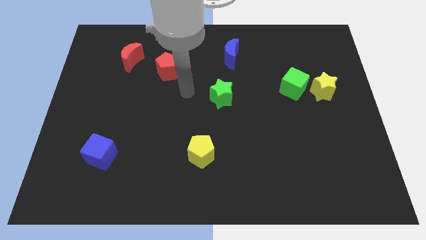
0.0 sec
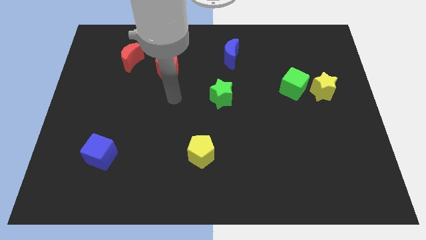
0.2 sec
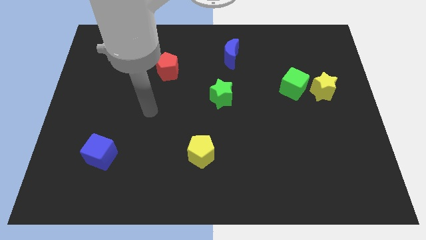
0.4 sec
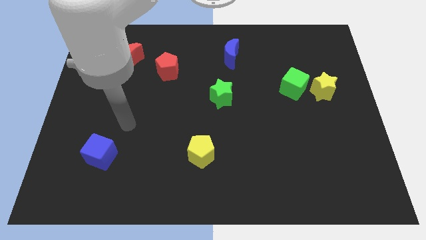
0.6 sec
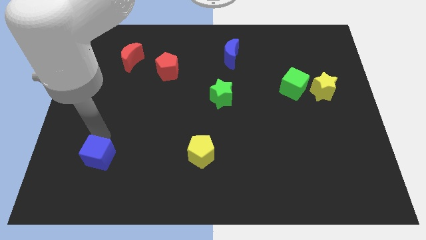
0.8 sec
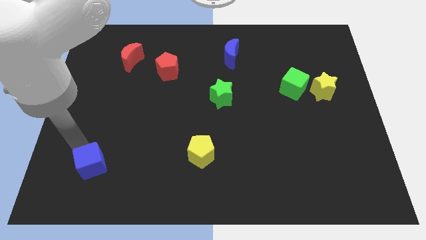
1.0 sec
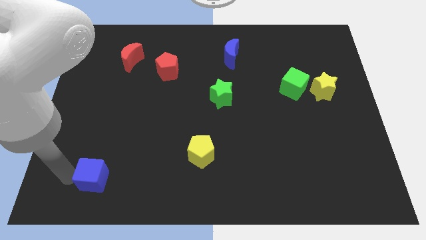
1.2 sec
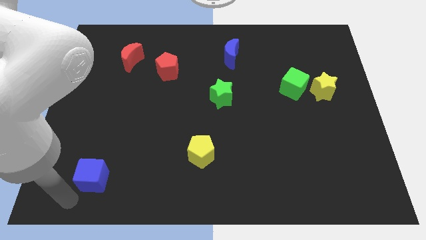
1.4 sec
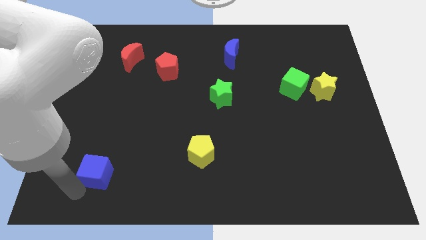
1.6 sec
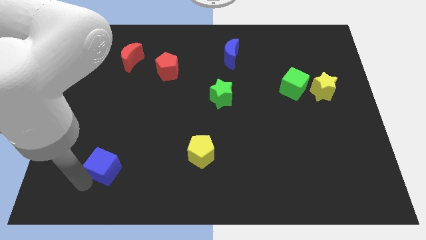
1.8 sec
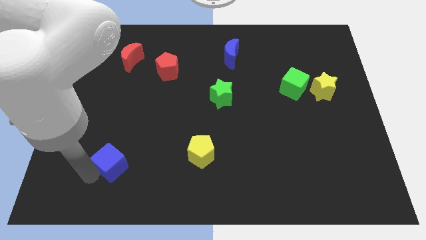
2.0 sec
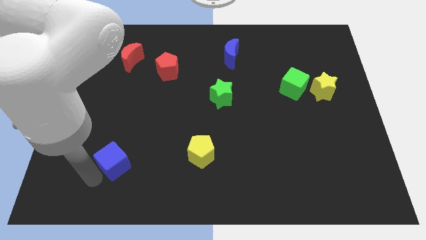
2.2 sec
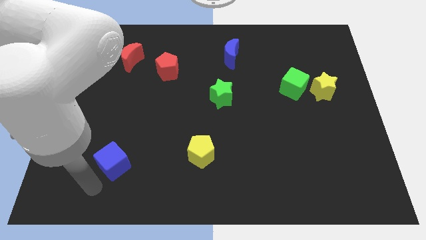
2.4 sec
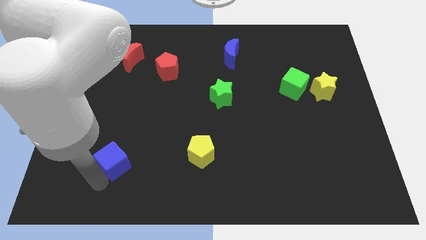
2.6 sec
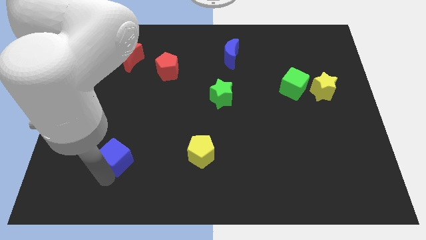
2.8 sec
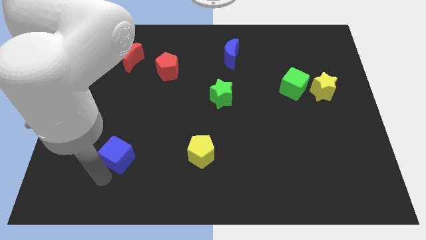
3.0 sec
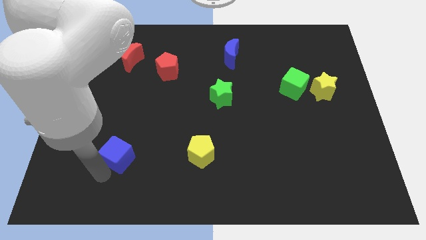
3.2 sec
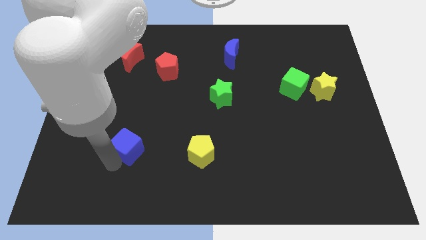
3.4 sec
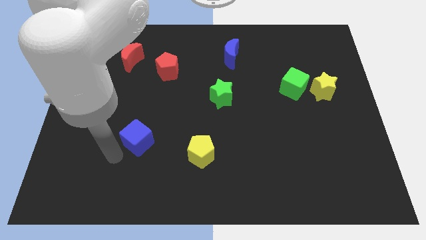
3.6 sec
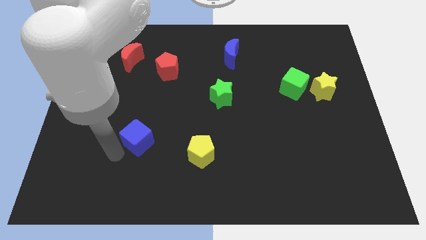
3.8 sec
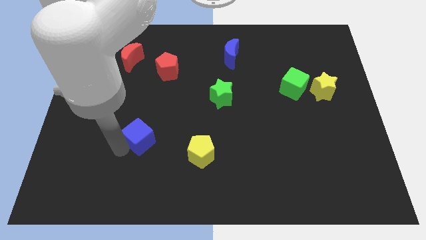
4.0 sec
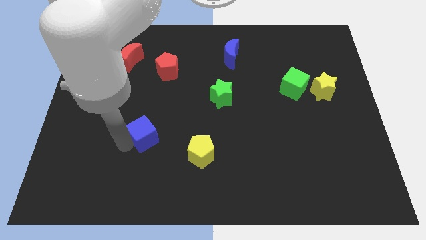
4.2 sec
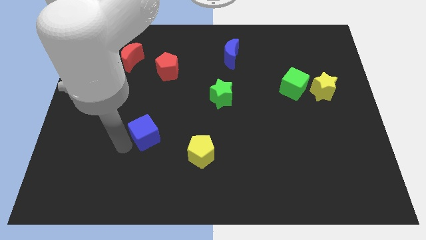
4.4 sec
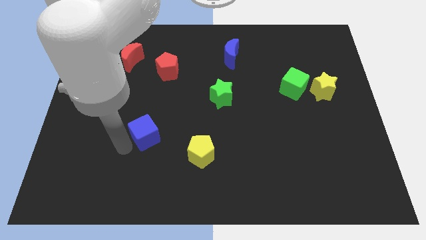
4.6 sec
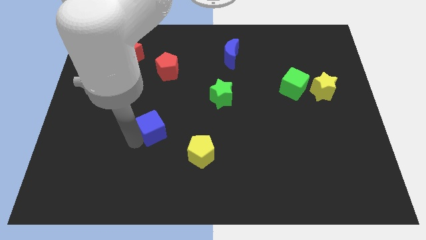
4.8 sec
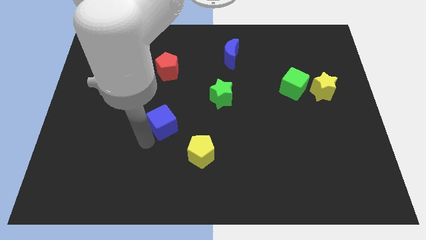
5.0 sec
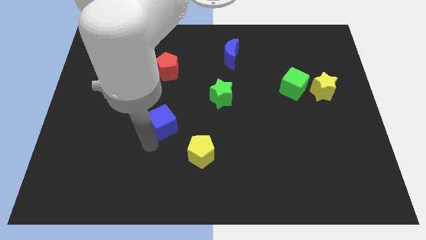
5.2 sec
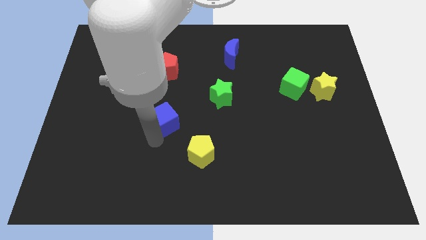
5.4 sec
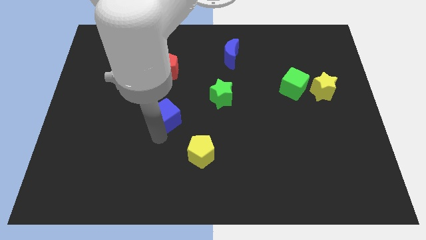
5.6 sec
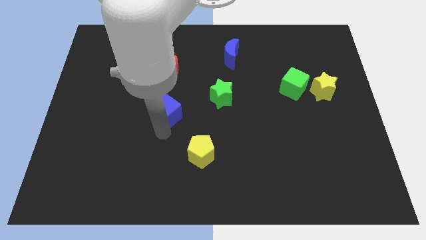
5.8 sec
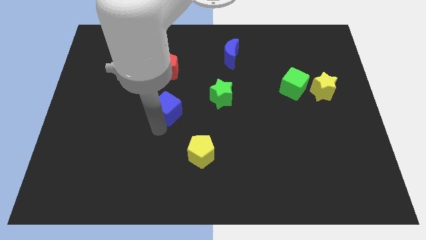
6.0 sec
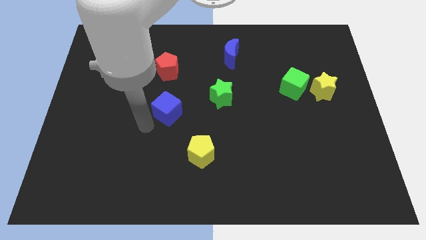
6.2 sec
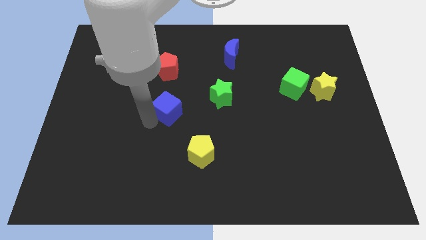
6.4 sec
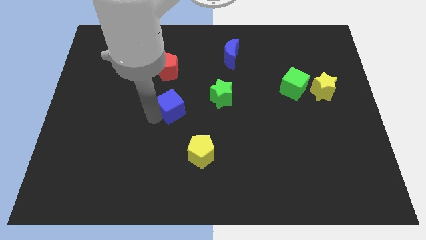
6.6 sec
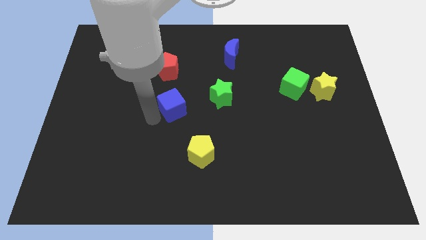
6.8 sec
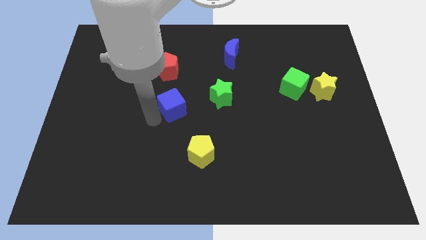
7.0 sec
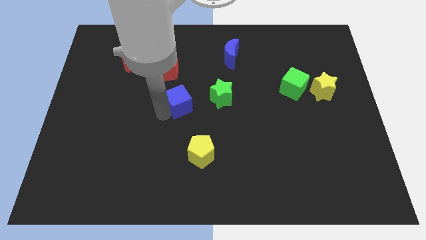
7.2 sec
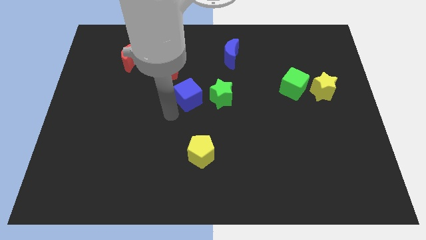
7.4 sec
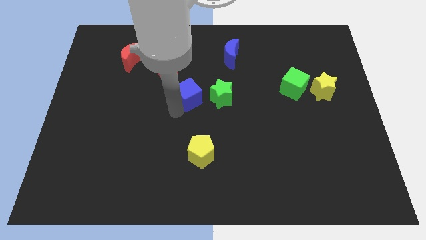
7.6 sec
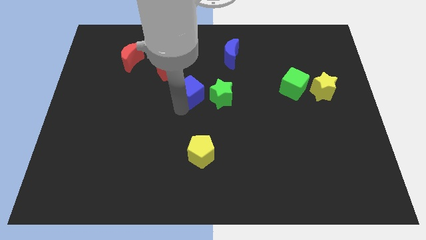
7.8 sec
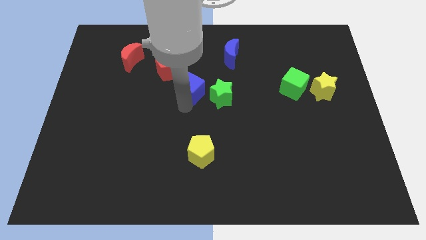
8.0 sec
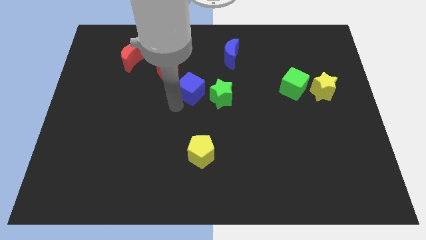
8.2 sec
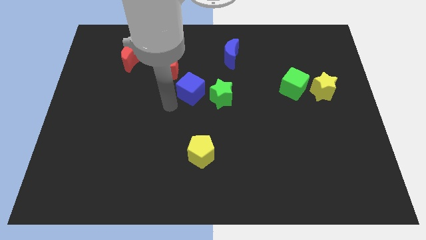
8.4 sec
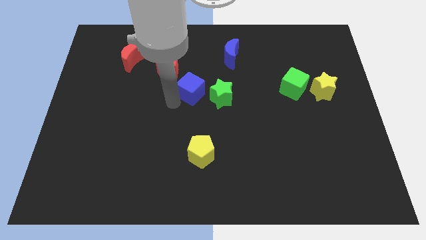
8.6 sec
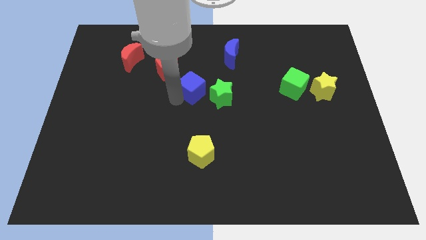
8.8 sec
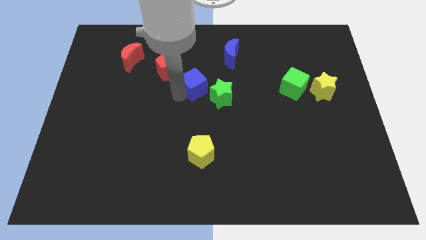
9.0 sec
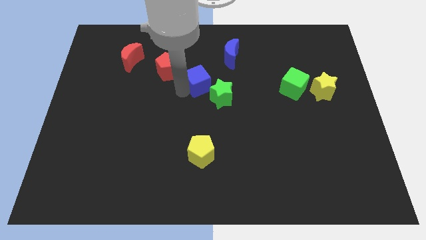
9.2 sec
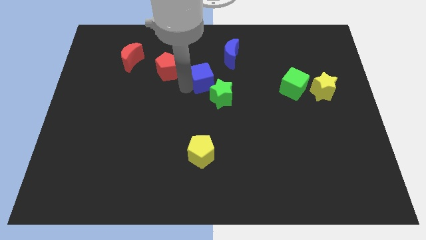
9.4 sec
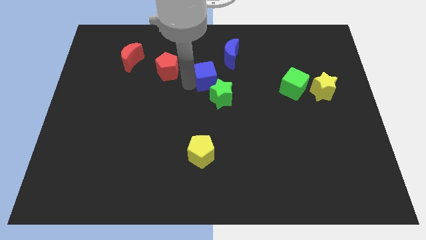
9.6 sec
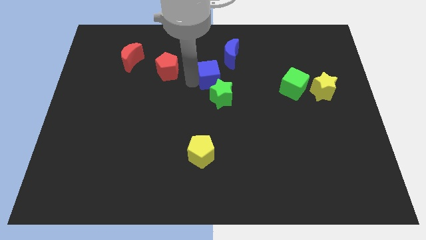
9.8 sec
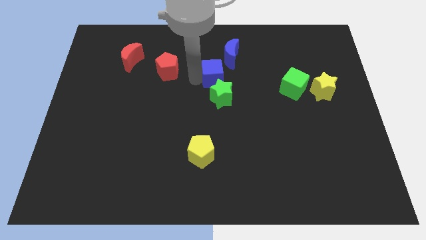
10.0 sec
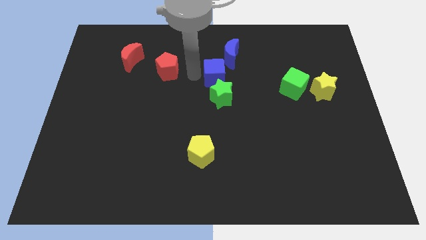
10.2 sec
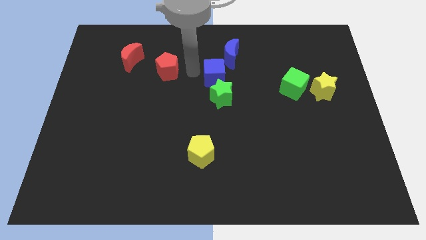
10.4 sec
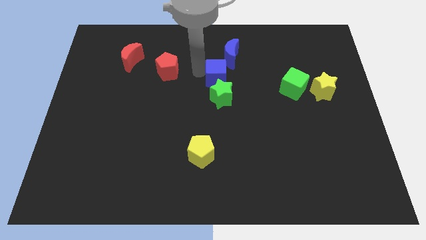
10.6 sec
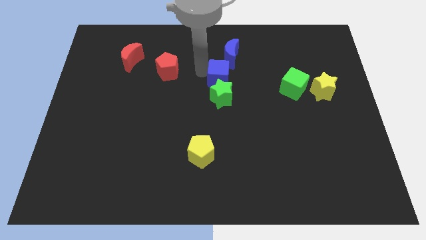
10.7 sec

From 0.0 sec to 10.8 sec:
slide the blue cube to the top right side of the green star

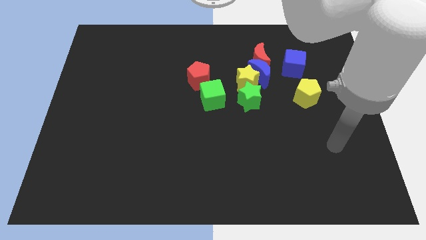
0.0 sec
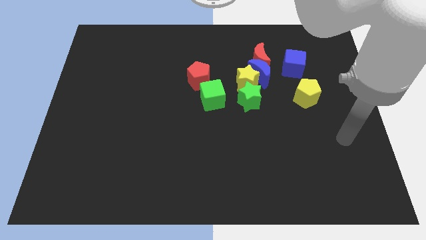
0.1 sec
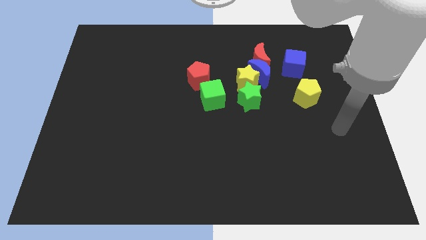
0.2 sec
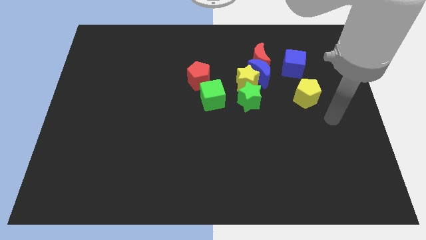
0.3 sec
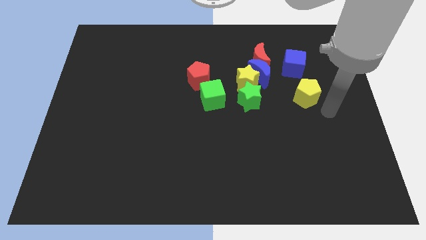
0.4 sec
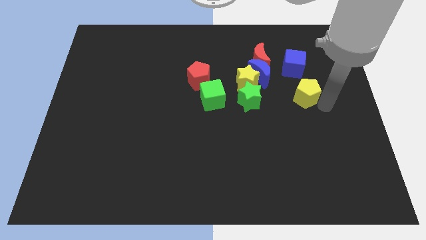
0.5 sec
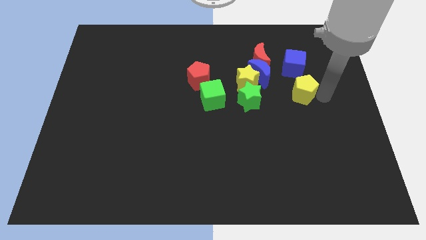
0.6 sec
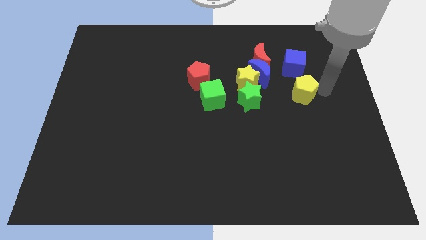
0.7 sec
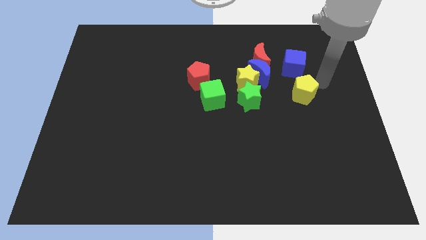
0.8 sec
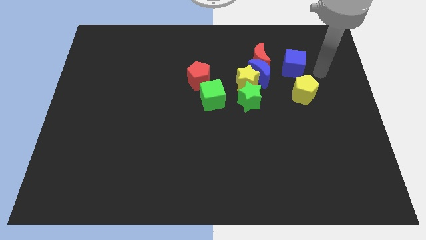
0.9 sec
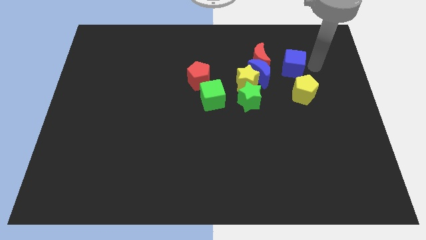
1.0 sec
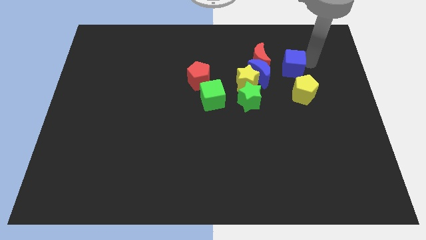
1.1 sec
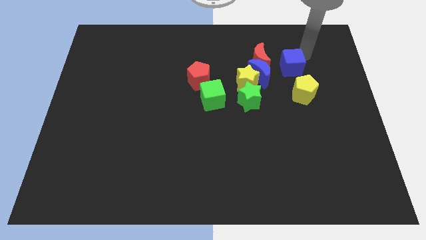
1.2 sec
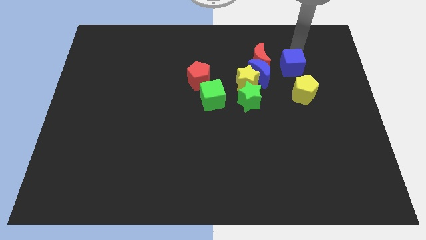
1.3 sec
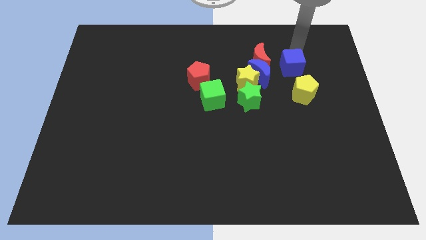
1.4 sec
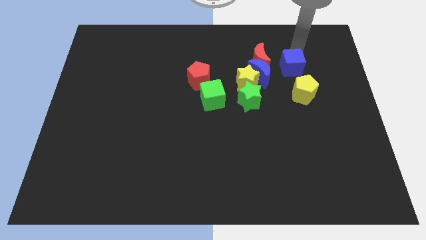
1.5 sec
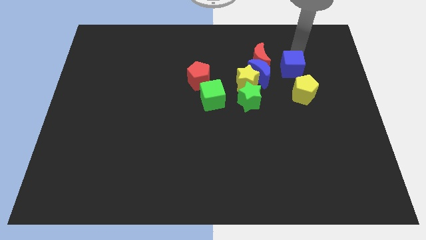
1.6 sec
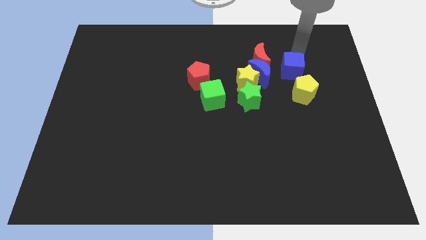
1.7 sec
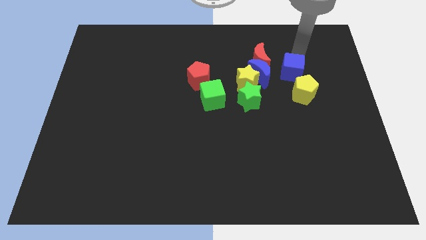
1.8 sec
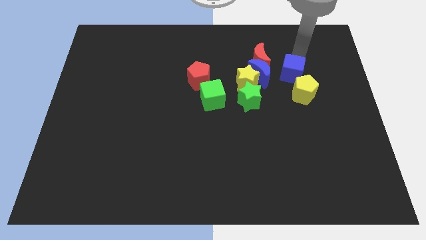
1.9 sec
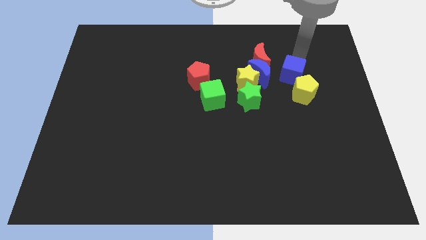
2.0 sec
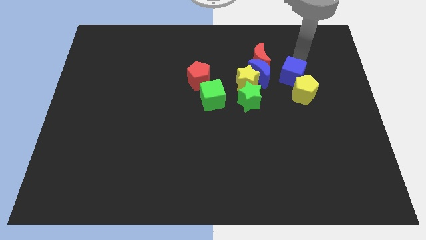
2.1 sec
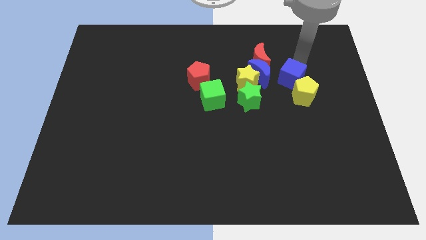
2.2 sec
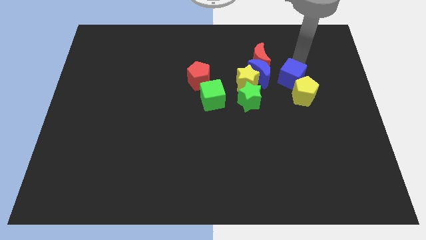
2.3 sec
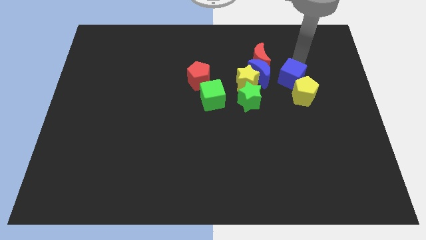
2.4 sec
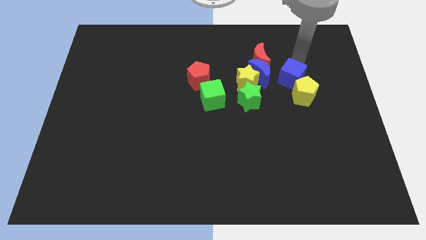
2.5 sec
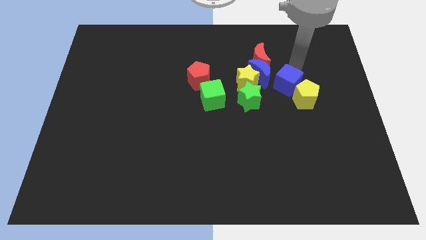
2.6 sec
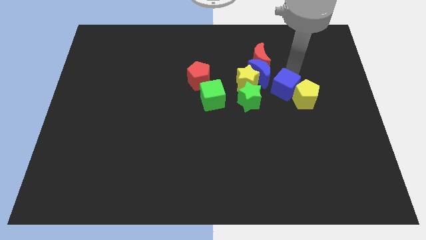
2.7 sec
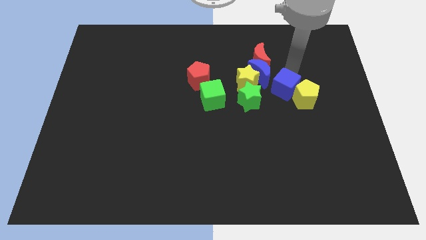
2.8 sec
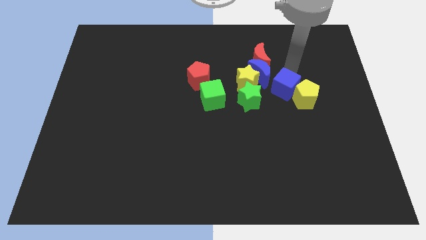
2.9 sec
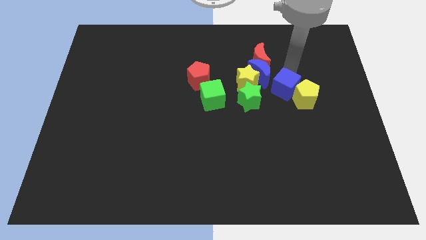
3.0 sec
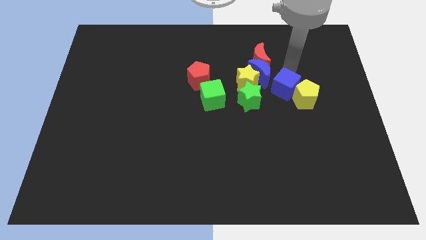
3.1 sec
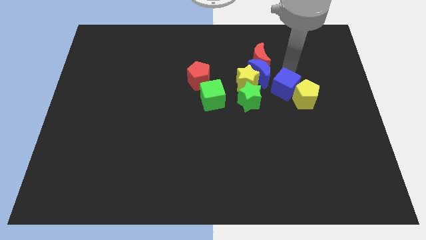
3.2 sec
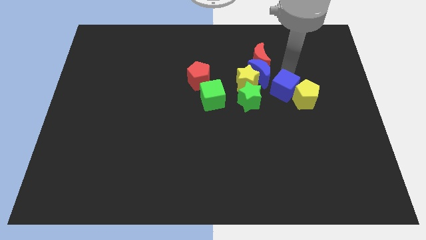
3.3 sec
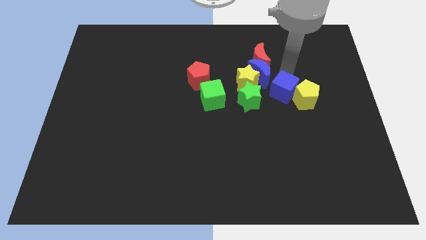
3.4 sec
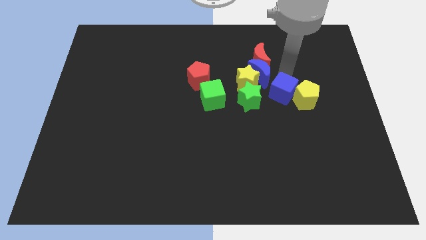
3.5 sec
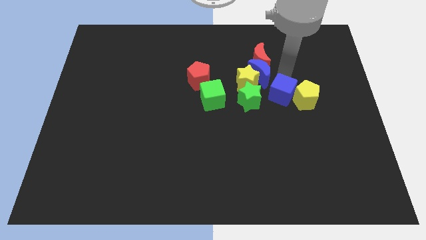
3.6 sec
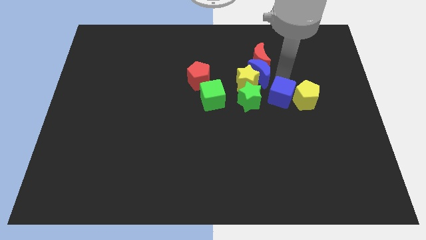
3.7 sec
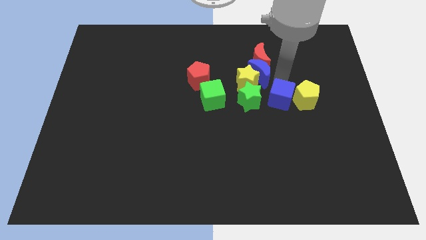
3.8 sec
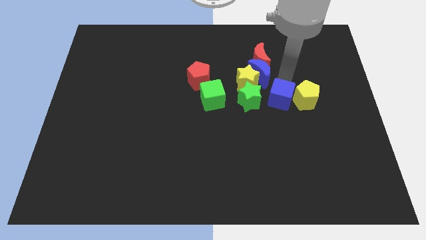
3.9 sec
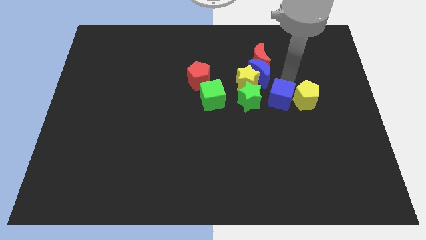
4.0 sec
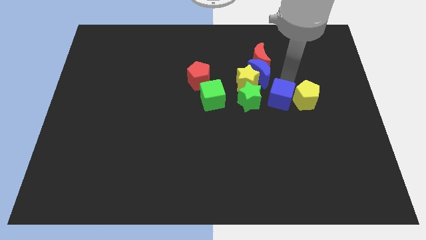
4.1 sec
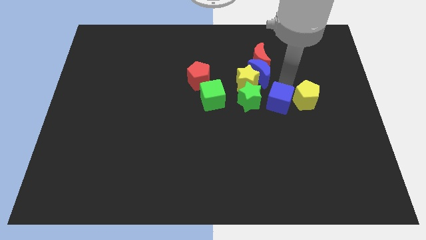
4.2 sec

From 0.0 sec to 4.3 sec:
move the blue cube to the bottom right side of the green star
